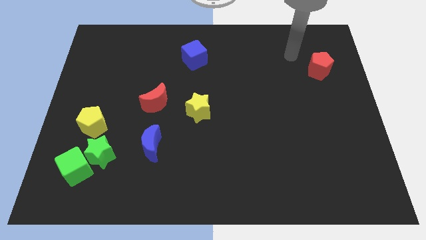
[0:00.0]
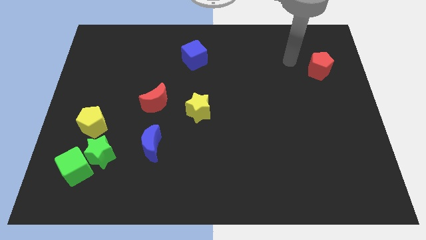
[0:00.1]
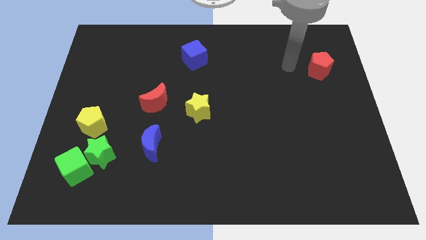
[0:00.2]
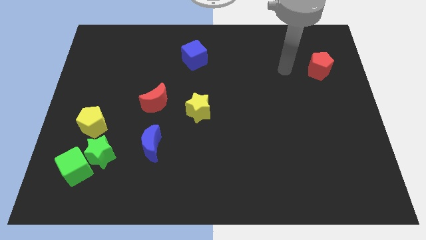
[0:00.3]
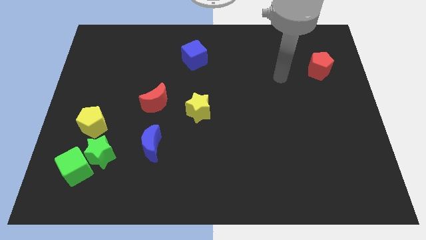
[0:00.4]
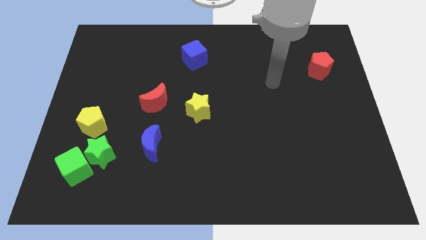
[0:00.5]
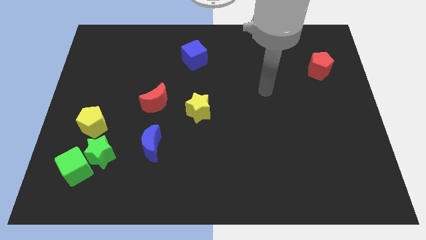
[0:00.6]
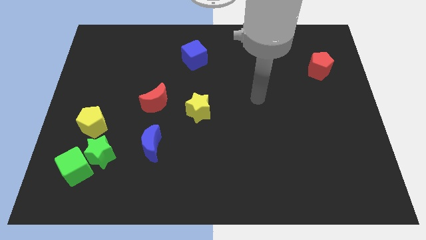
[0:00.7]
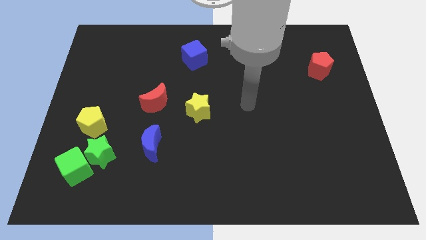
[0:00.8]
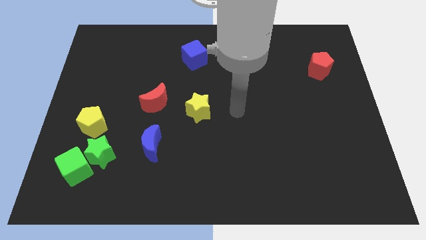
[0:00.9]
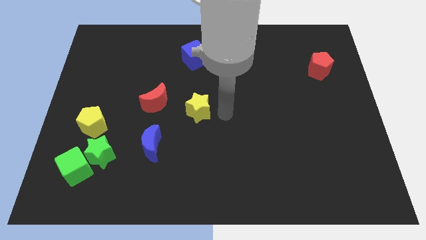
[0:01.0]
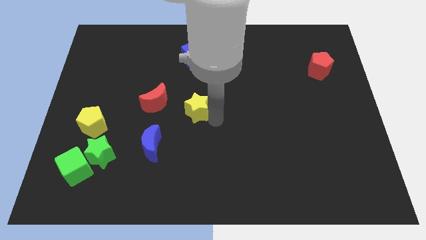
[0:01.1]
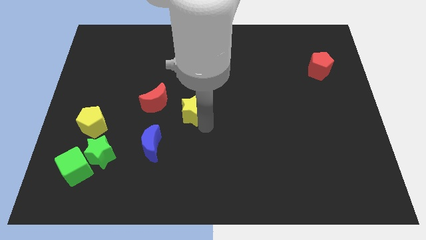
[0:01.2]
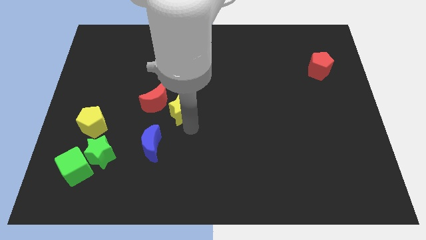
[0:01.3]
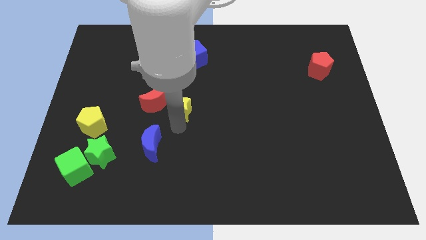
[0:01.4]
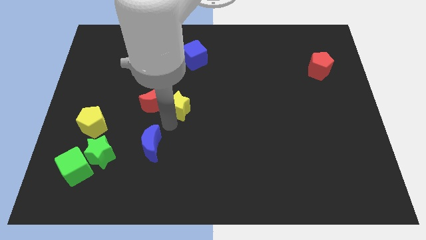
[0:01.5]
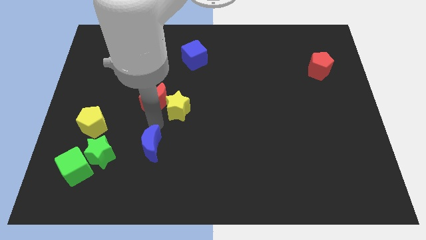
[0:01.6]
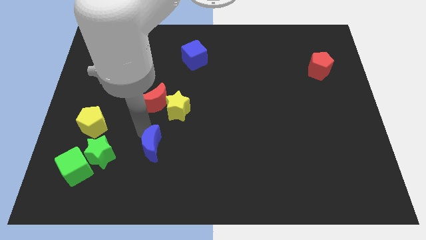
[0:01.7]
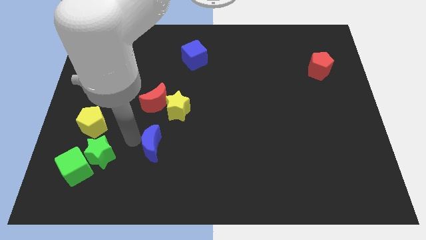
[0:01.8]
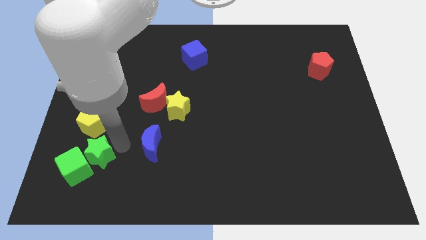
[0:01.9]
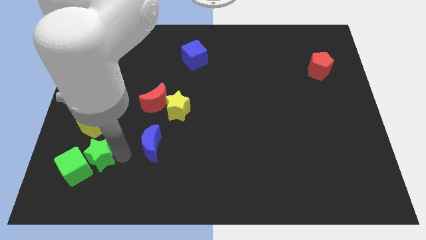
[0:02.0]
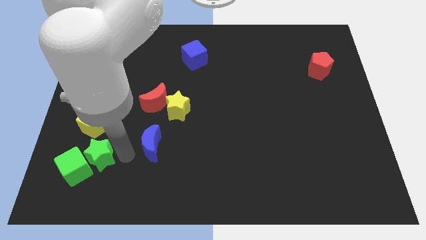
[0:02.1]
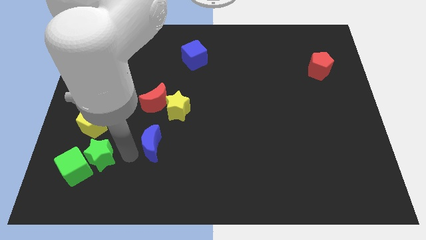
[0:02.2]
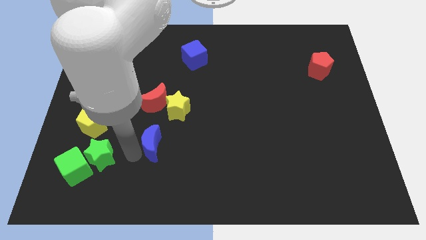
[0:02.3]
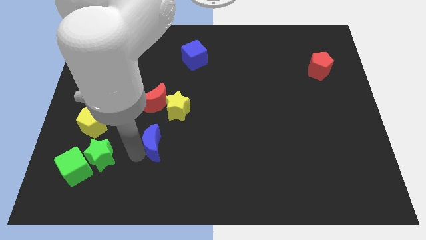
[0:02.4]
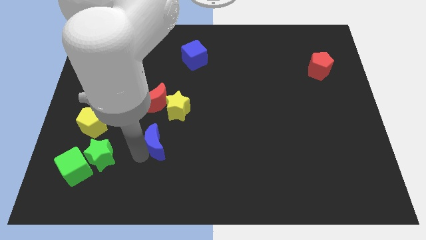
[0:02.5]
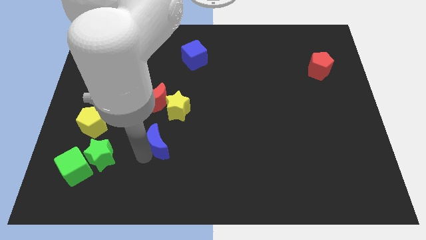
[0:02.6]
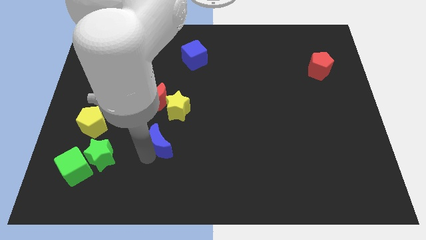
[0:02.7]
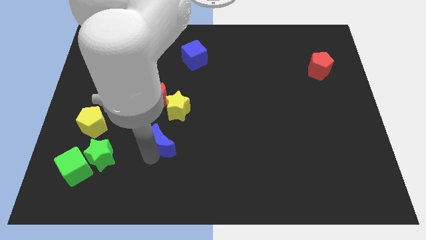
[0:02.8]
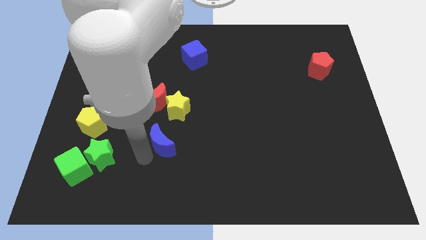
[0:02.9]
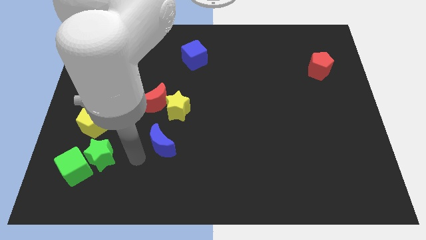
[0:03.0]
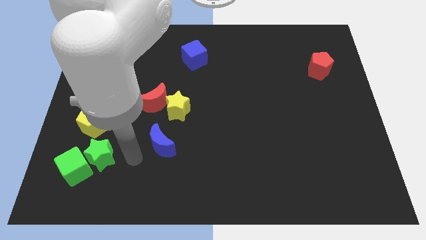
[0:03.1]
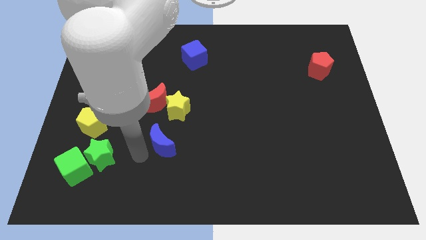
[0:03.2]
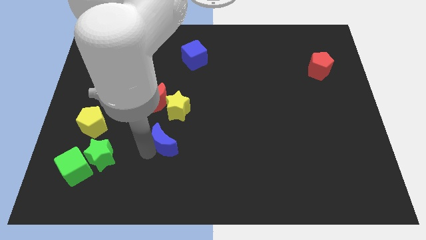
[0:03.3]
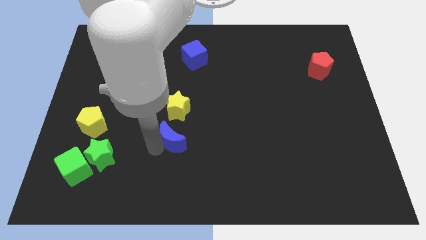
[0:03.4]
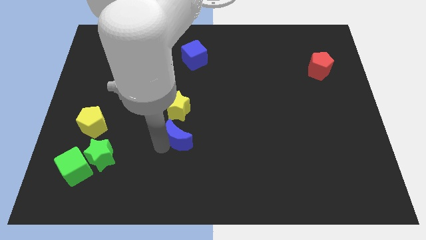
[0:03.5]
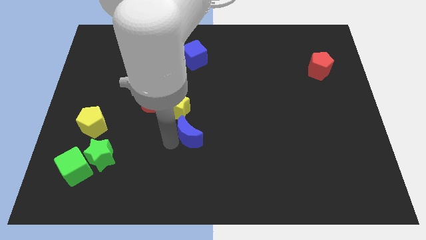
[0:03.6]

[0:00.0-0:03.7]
slightly move the blue moon upwards and right diagonally

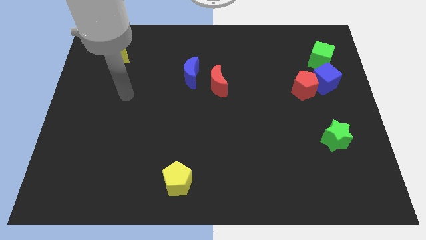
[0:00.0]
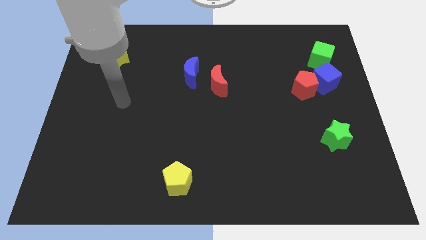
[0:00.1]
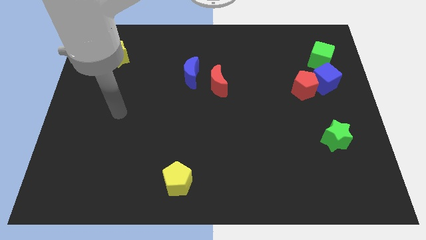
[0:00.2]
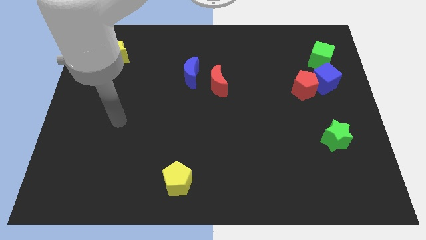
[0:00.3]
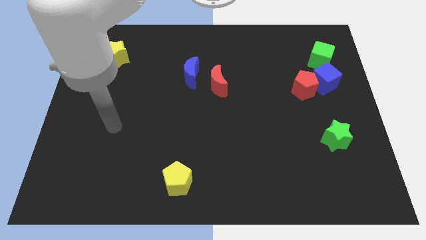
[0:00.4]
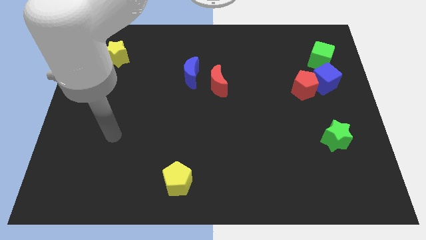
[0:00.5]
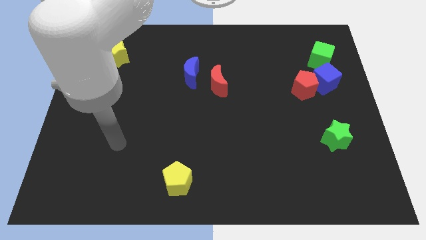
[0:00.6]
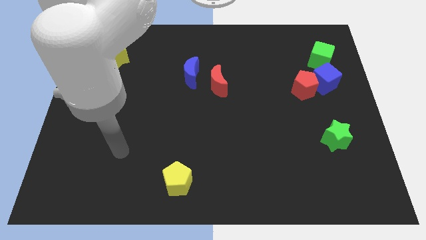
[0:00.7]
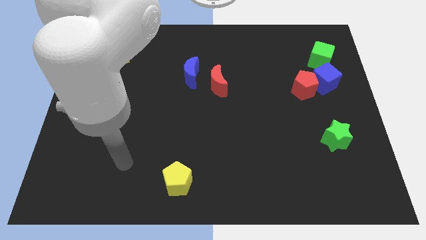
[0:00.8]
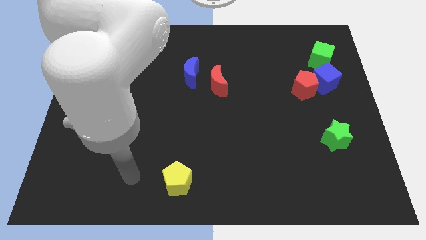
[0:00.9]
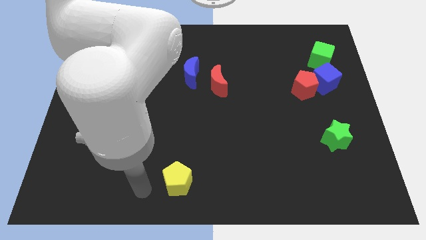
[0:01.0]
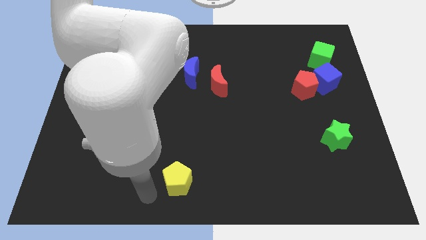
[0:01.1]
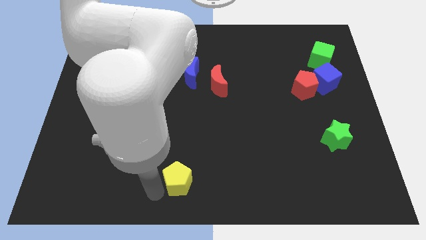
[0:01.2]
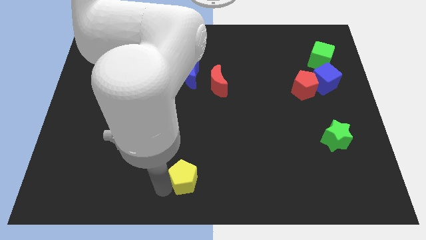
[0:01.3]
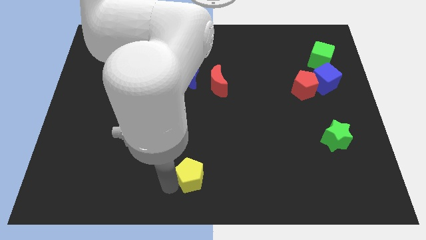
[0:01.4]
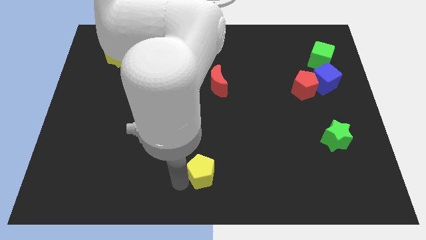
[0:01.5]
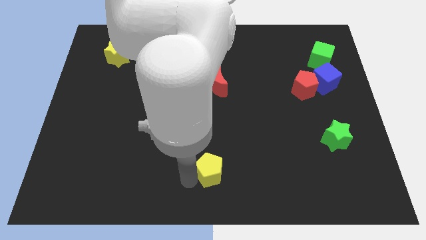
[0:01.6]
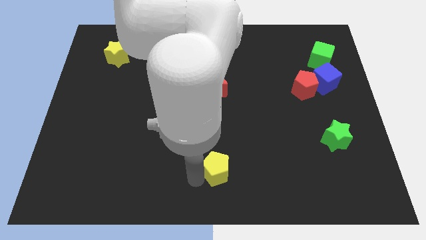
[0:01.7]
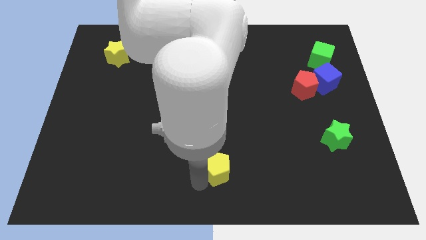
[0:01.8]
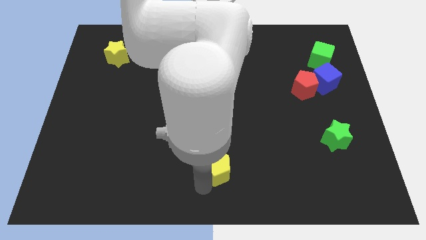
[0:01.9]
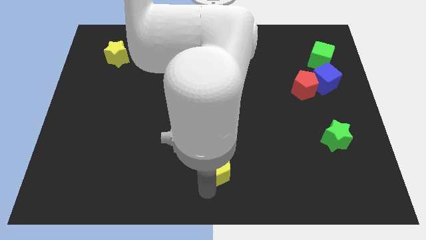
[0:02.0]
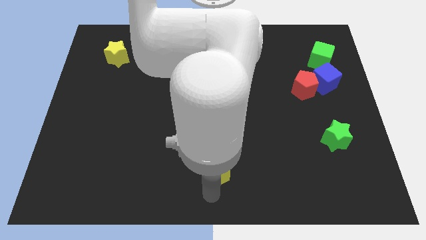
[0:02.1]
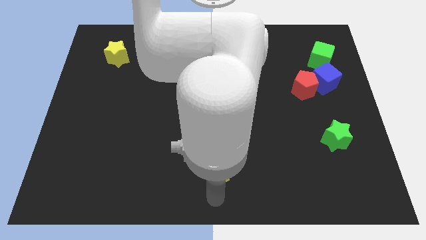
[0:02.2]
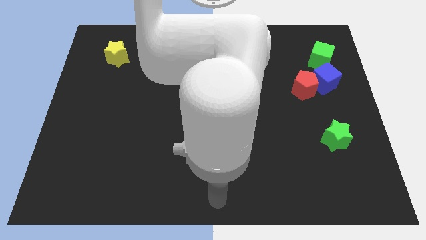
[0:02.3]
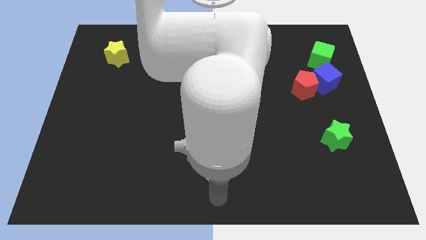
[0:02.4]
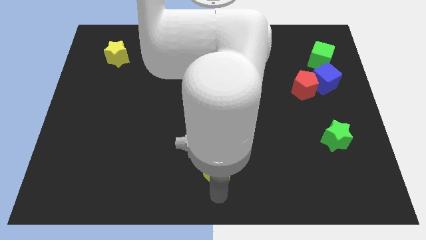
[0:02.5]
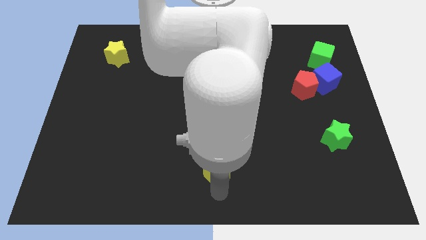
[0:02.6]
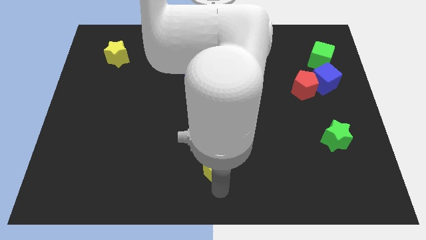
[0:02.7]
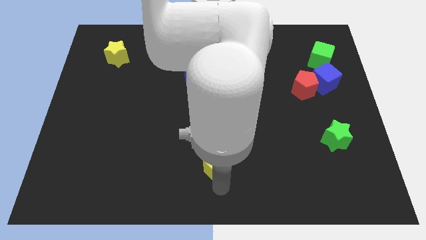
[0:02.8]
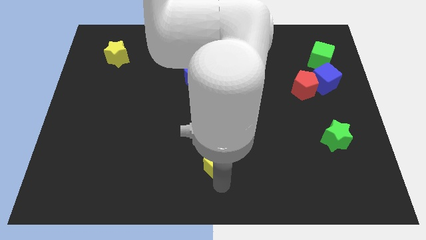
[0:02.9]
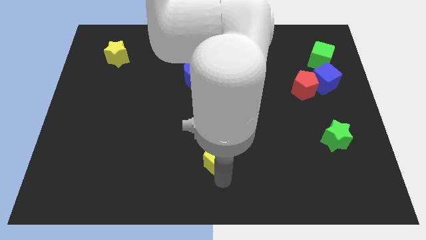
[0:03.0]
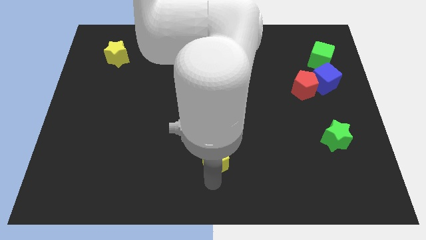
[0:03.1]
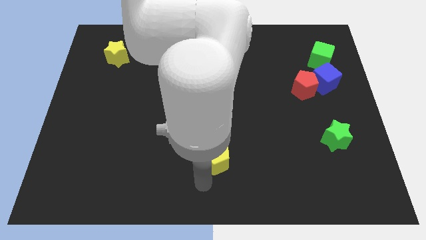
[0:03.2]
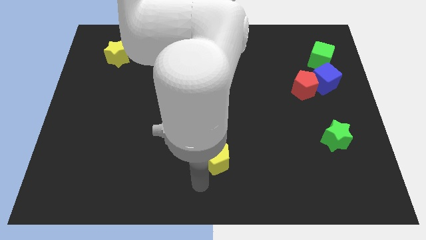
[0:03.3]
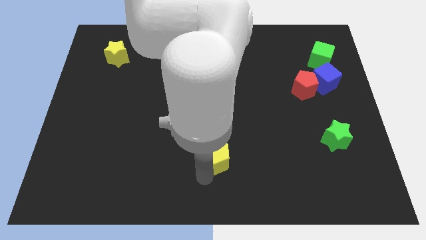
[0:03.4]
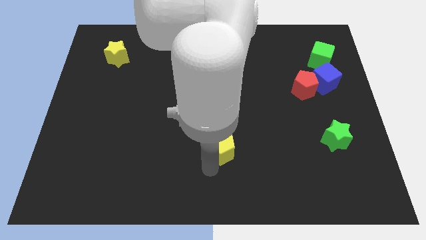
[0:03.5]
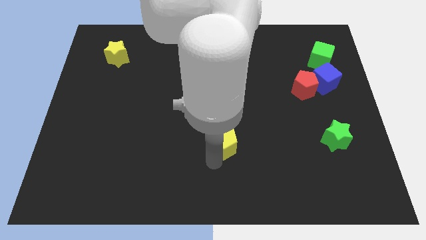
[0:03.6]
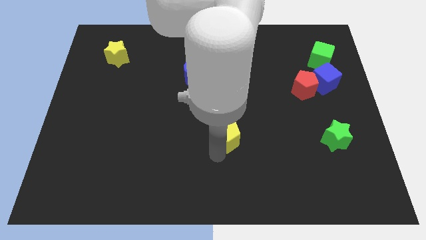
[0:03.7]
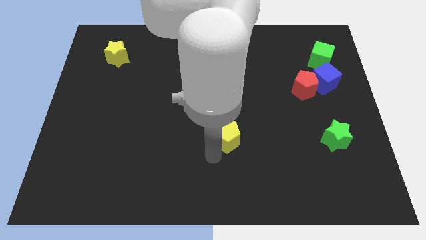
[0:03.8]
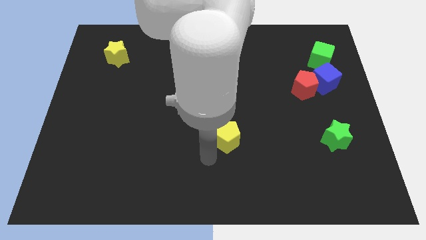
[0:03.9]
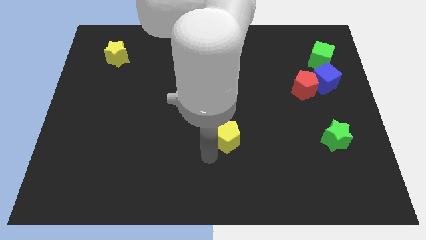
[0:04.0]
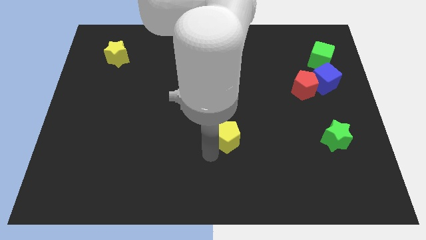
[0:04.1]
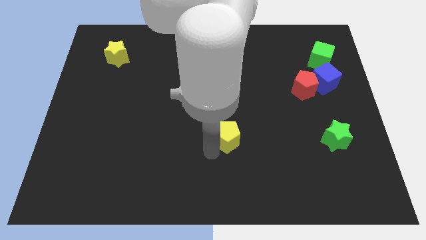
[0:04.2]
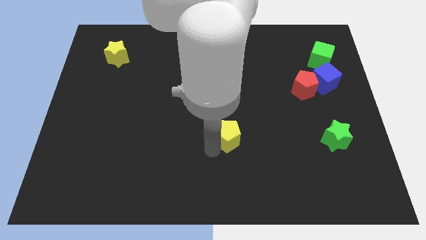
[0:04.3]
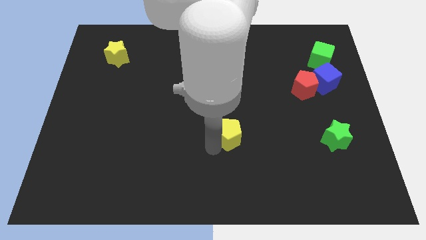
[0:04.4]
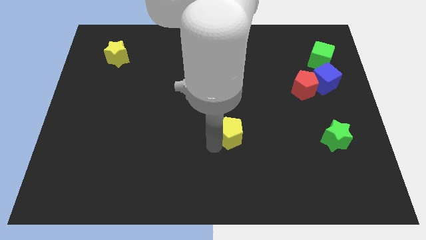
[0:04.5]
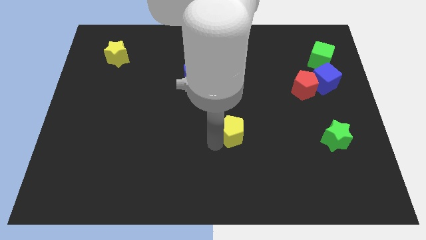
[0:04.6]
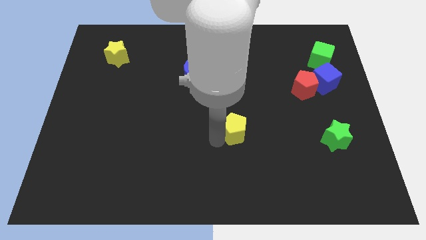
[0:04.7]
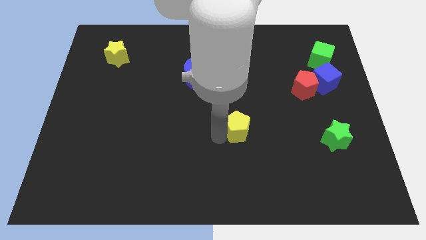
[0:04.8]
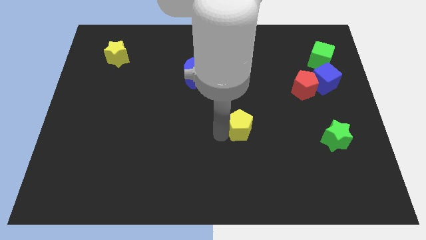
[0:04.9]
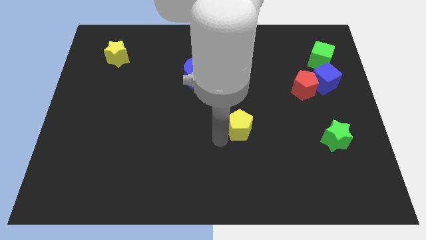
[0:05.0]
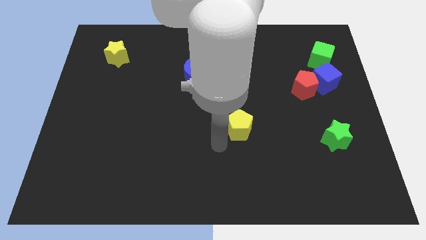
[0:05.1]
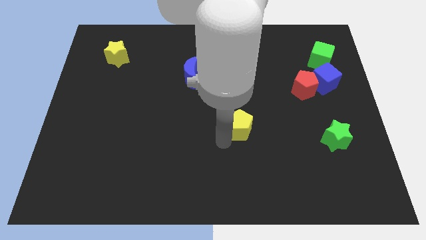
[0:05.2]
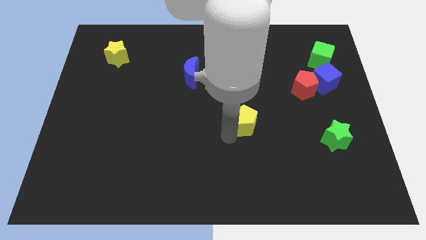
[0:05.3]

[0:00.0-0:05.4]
move the yellow pentagon up and to the right
